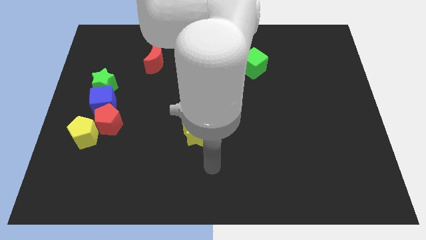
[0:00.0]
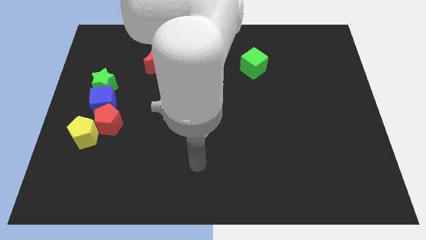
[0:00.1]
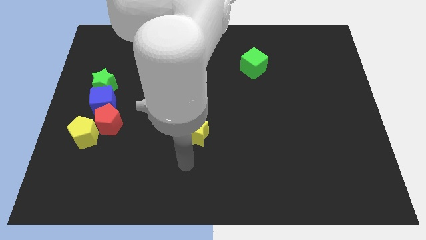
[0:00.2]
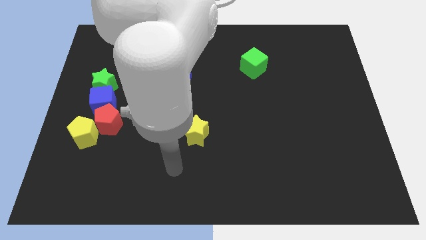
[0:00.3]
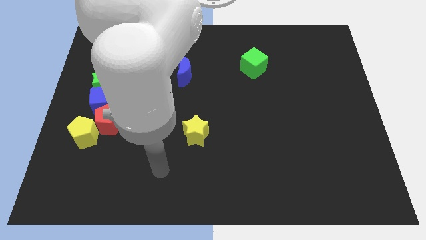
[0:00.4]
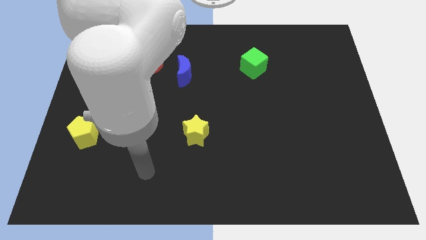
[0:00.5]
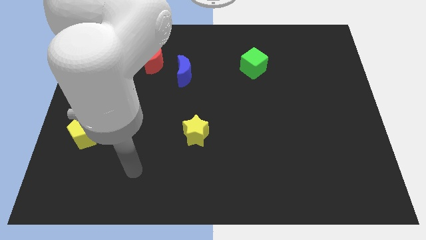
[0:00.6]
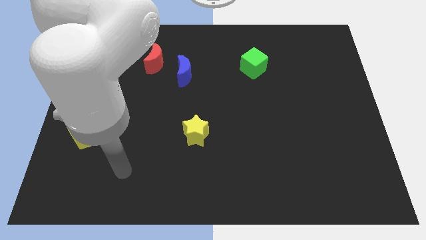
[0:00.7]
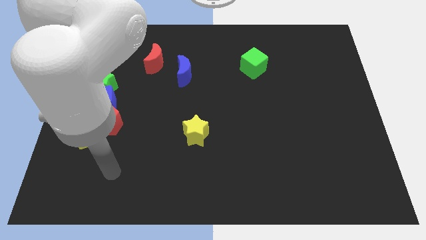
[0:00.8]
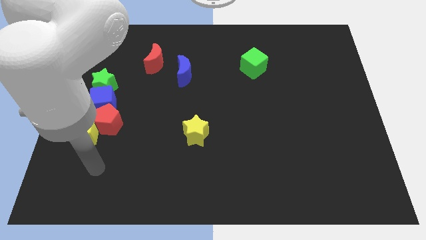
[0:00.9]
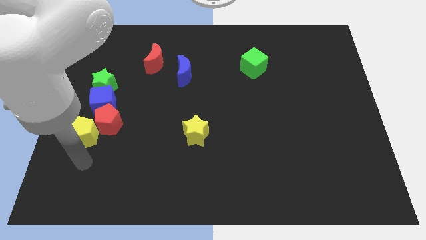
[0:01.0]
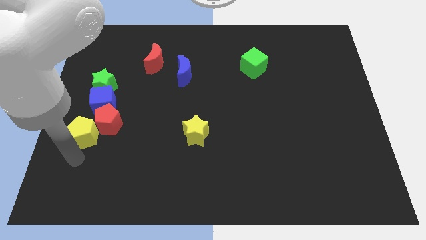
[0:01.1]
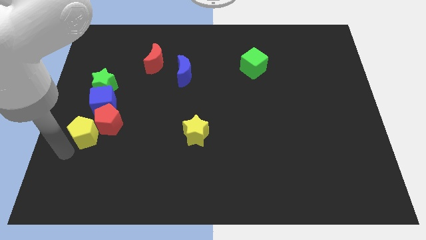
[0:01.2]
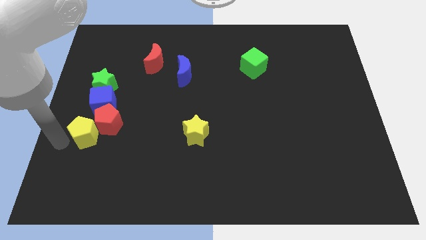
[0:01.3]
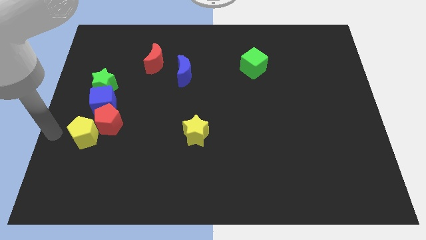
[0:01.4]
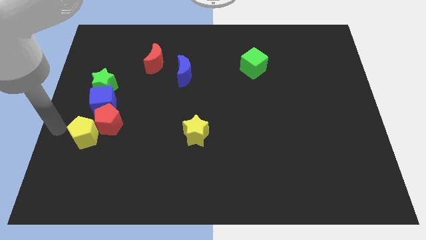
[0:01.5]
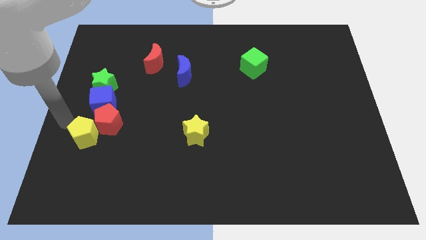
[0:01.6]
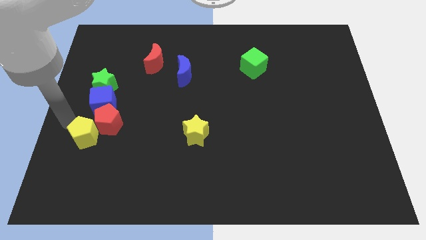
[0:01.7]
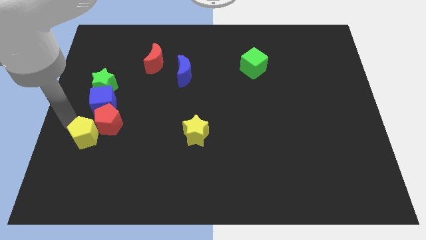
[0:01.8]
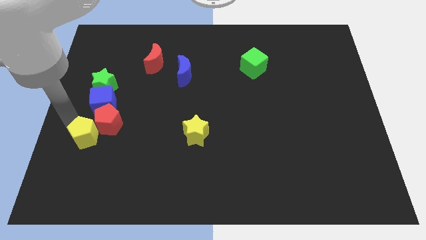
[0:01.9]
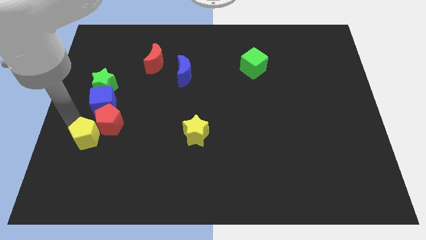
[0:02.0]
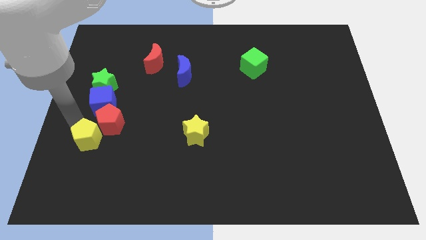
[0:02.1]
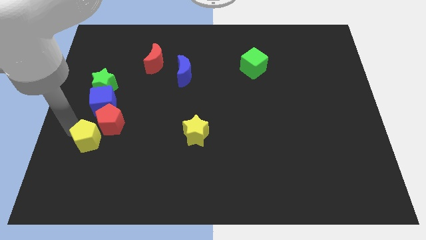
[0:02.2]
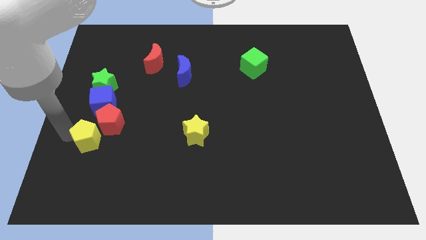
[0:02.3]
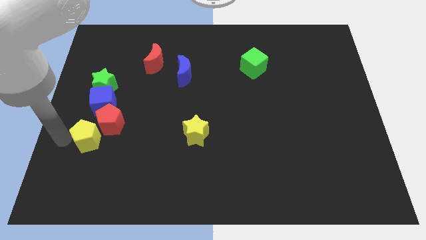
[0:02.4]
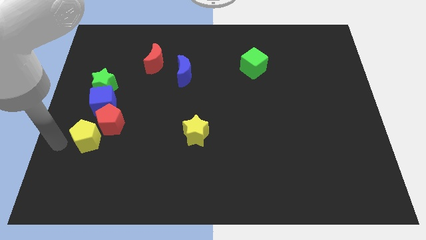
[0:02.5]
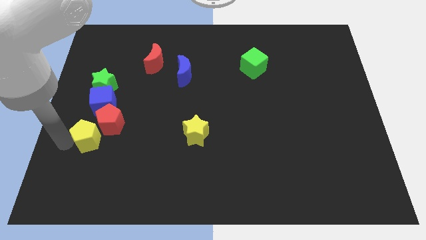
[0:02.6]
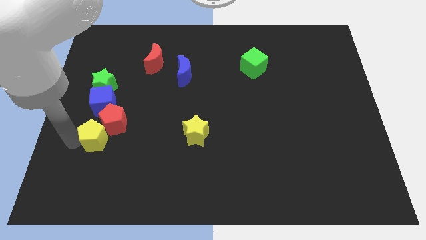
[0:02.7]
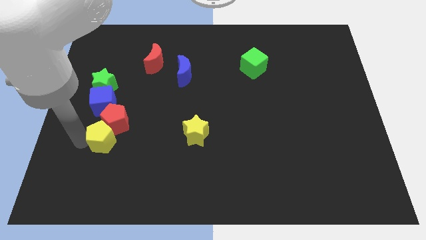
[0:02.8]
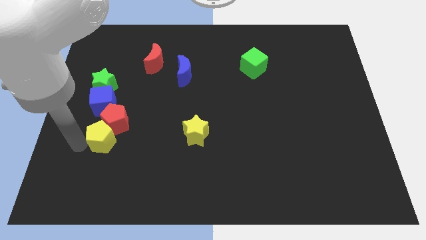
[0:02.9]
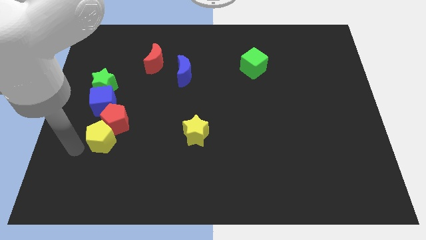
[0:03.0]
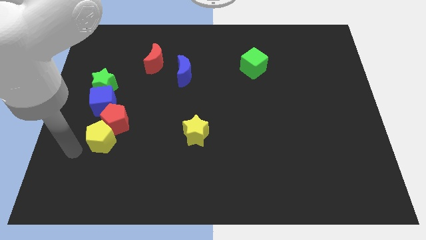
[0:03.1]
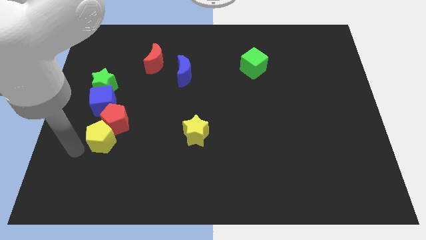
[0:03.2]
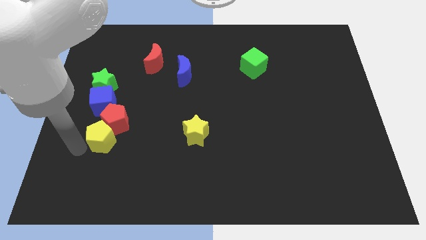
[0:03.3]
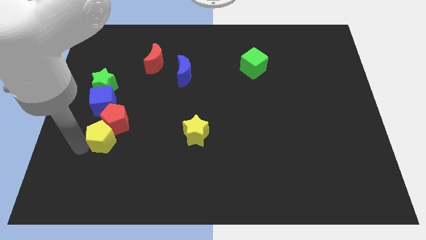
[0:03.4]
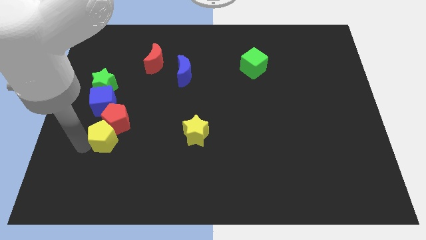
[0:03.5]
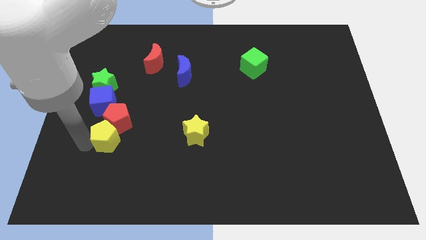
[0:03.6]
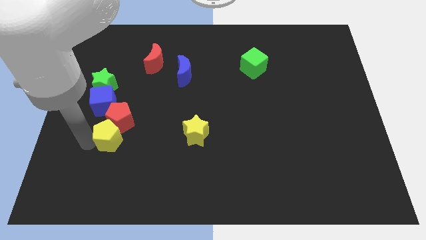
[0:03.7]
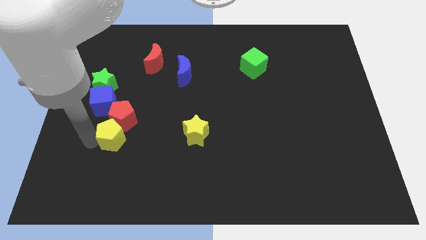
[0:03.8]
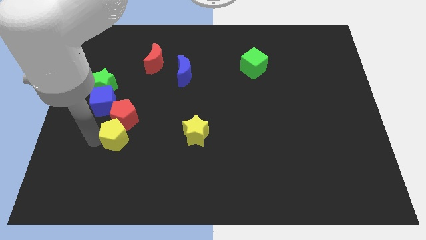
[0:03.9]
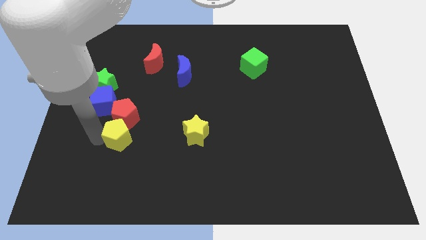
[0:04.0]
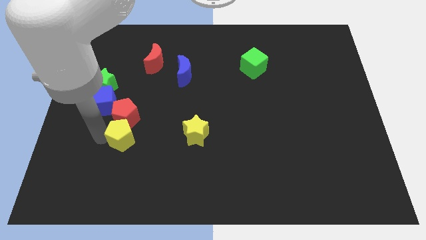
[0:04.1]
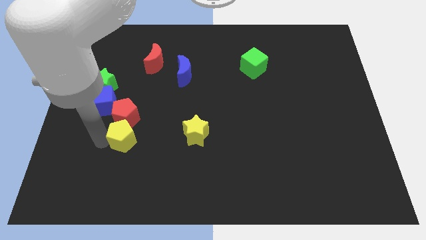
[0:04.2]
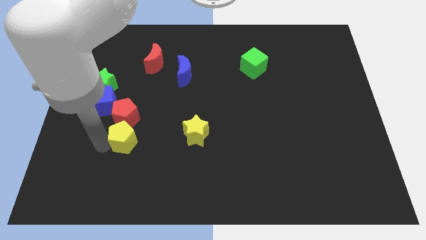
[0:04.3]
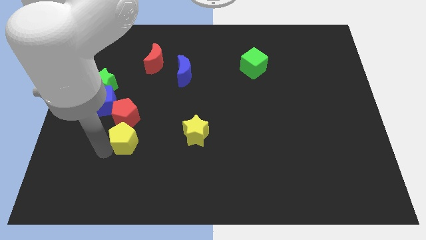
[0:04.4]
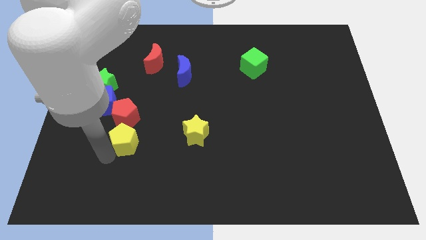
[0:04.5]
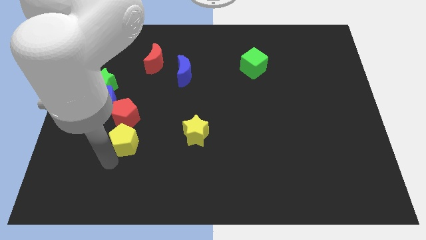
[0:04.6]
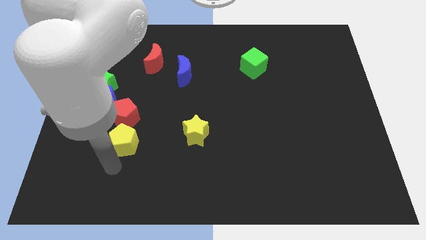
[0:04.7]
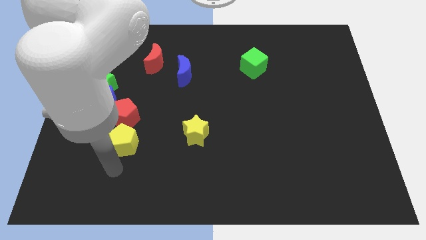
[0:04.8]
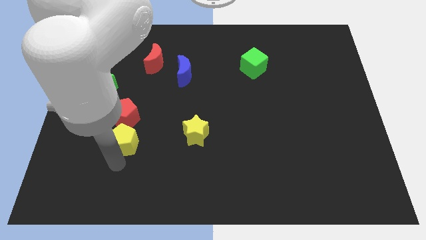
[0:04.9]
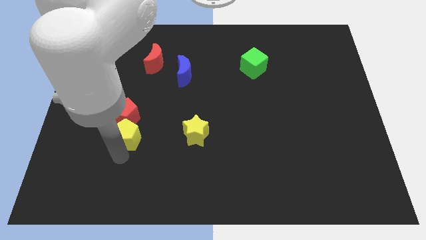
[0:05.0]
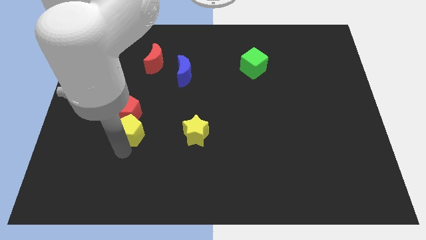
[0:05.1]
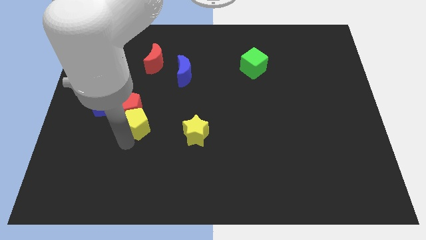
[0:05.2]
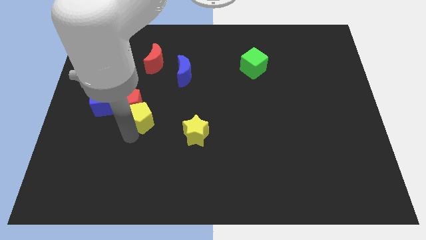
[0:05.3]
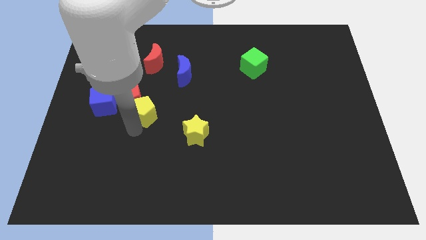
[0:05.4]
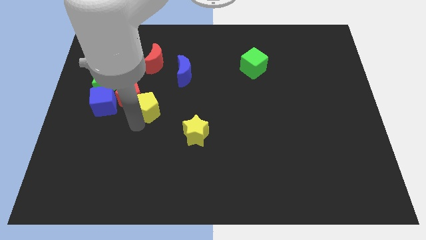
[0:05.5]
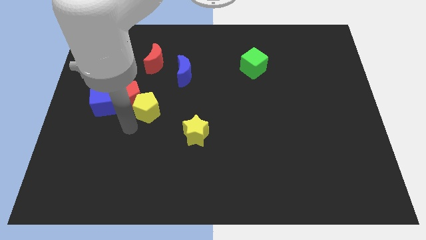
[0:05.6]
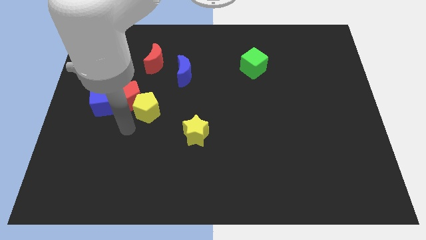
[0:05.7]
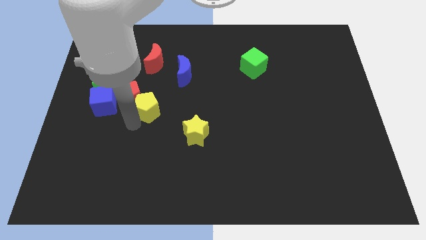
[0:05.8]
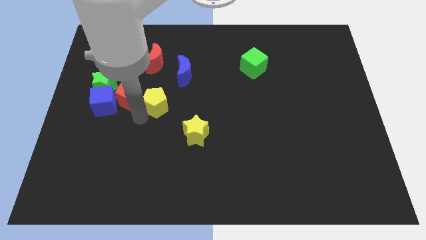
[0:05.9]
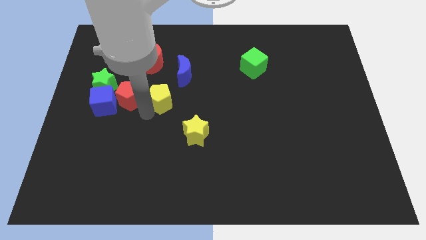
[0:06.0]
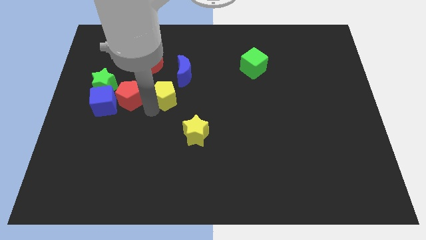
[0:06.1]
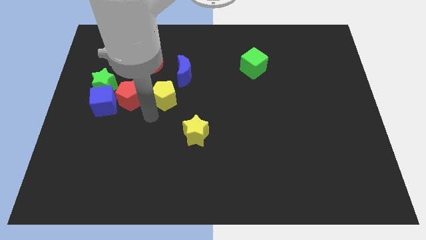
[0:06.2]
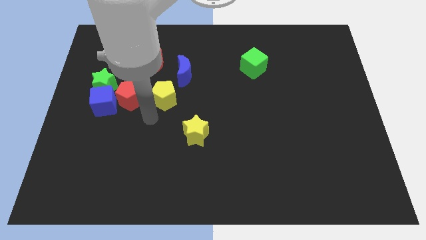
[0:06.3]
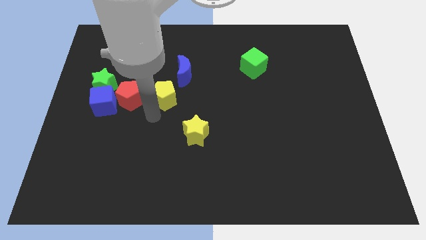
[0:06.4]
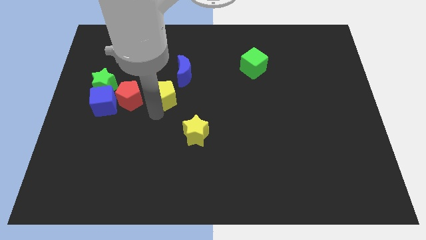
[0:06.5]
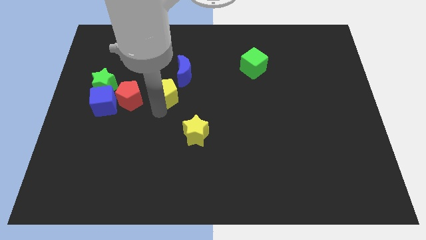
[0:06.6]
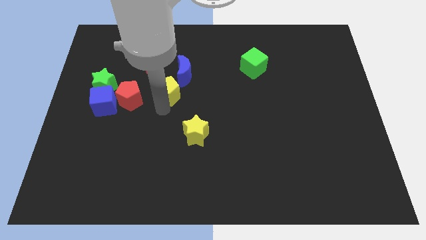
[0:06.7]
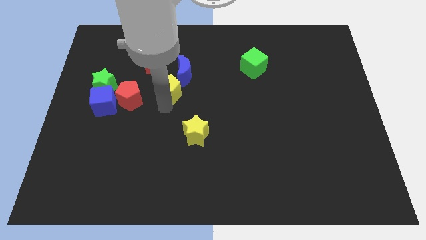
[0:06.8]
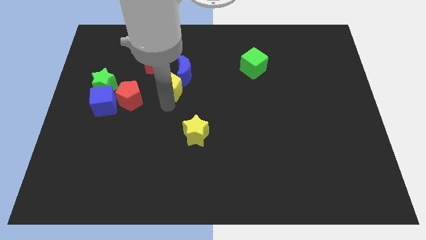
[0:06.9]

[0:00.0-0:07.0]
push the yellow pentagon towards the blue moon

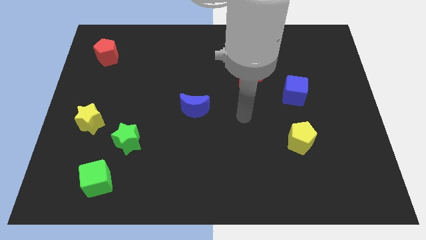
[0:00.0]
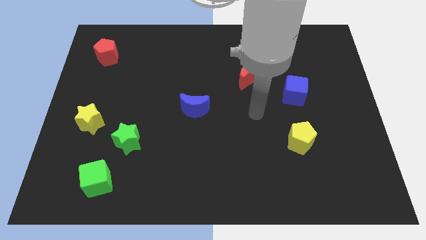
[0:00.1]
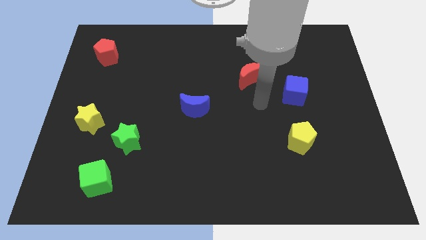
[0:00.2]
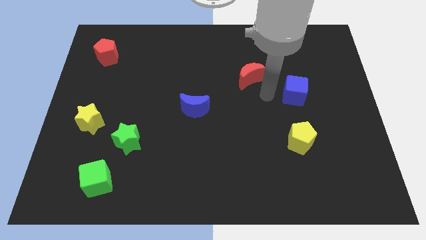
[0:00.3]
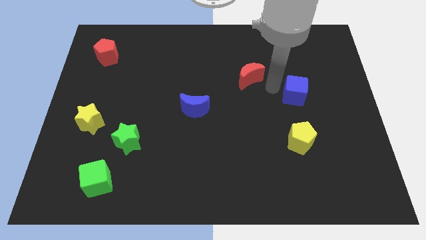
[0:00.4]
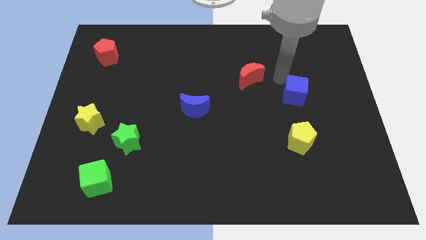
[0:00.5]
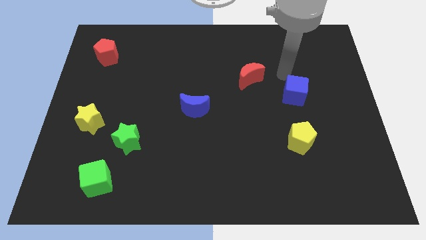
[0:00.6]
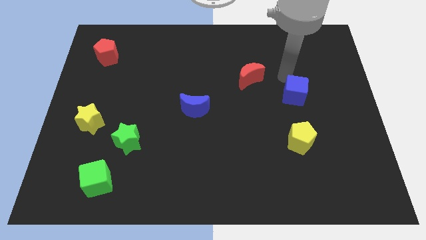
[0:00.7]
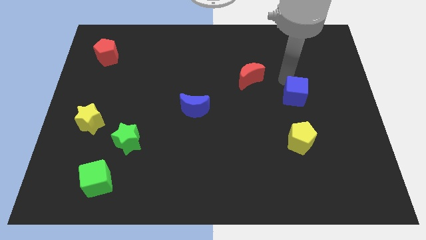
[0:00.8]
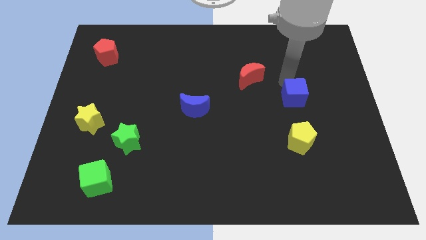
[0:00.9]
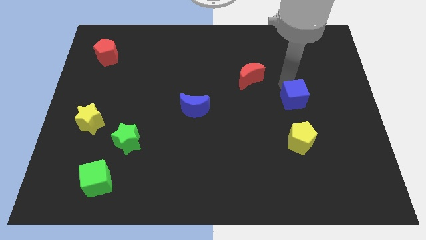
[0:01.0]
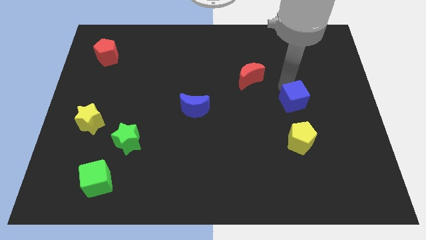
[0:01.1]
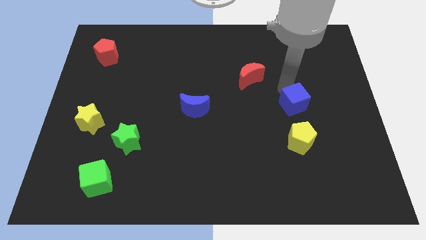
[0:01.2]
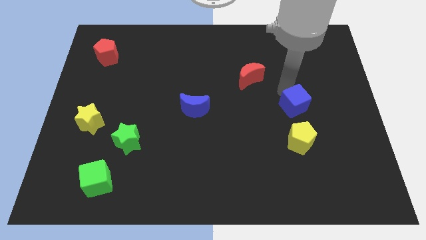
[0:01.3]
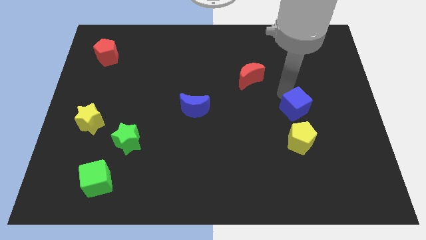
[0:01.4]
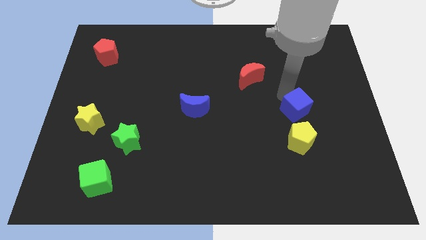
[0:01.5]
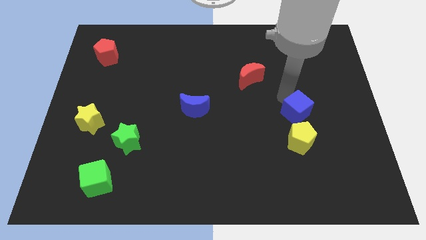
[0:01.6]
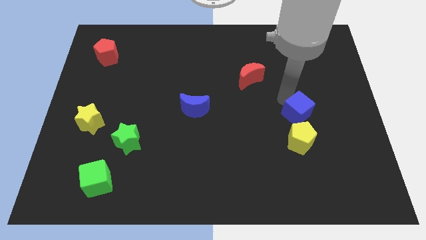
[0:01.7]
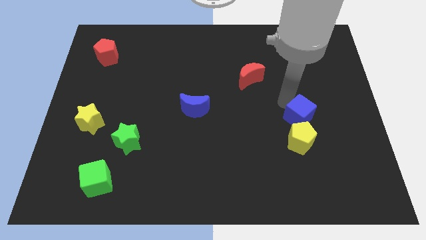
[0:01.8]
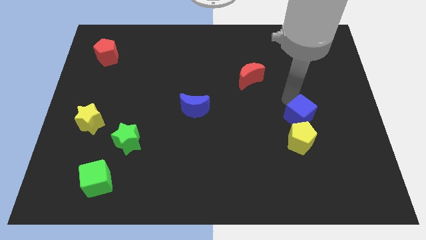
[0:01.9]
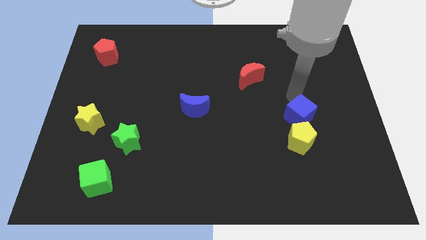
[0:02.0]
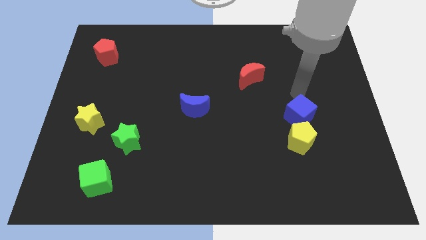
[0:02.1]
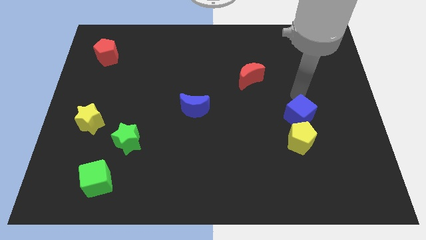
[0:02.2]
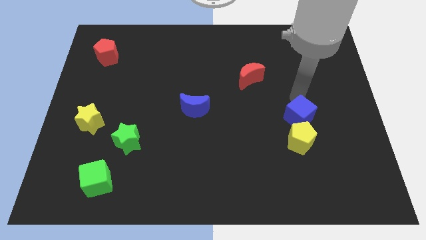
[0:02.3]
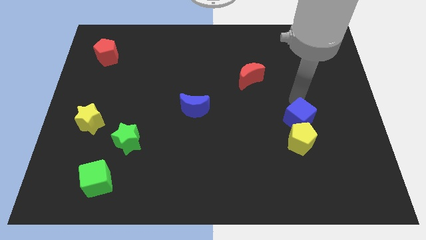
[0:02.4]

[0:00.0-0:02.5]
move the blue cube next to the yellow pentagon
